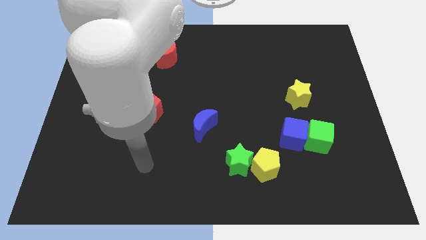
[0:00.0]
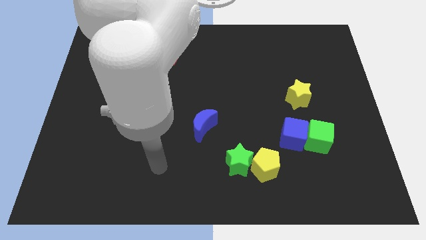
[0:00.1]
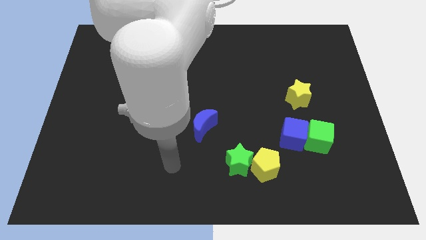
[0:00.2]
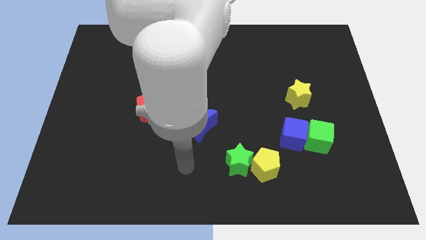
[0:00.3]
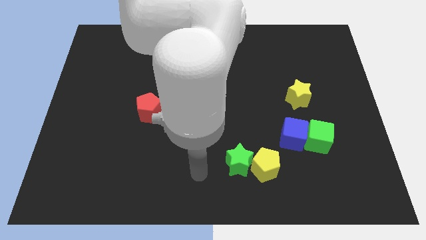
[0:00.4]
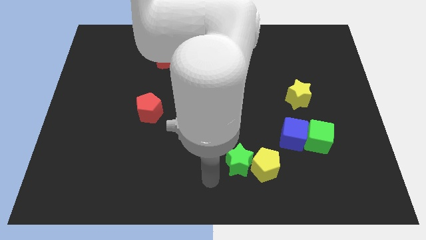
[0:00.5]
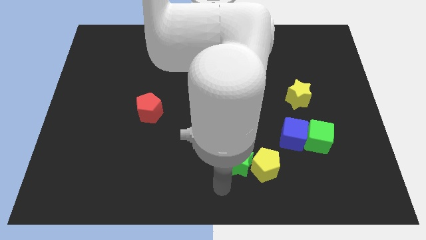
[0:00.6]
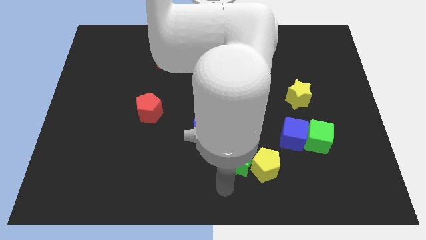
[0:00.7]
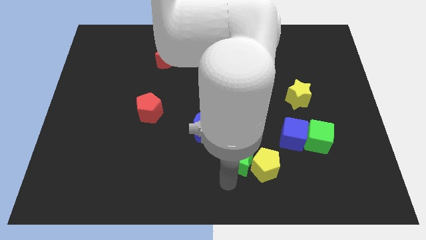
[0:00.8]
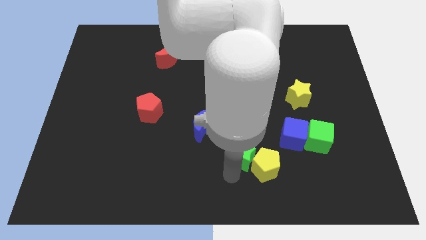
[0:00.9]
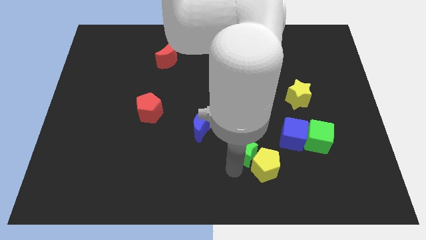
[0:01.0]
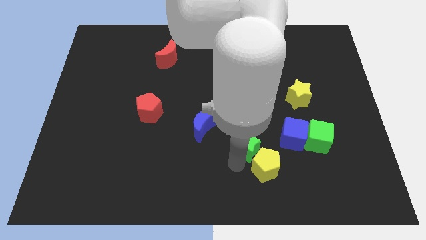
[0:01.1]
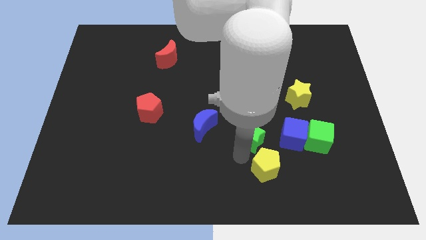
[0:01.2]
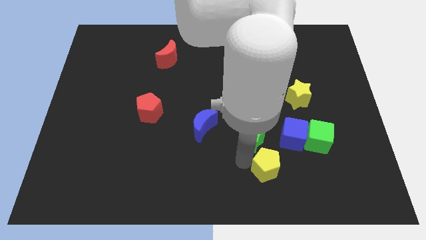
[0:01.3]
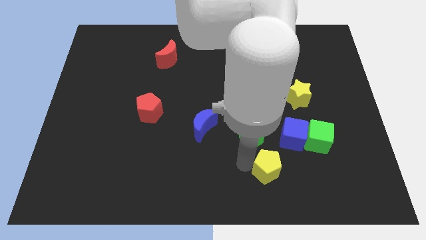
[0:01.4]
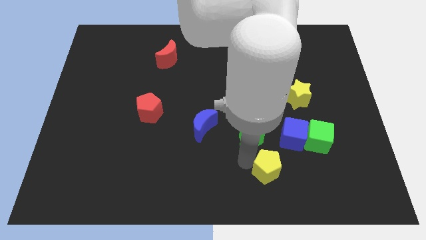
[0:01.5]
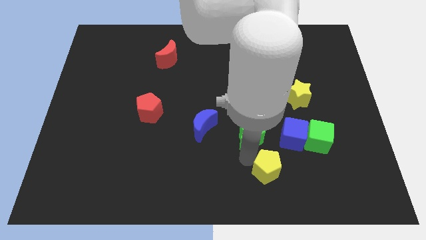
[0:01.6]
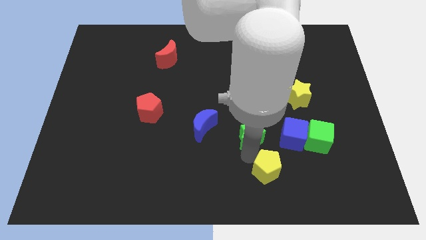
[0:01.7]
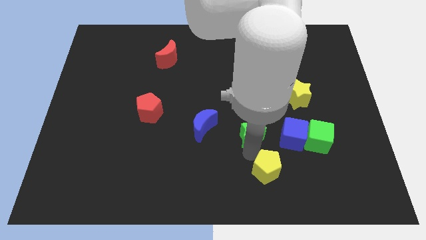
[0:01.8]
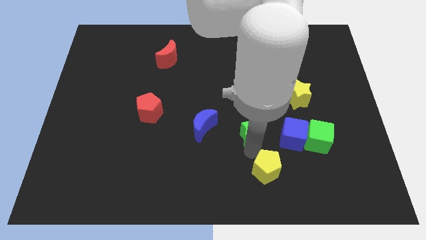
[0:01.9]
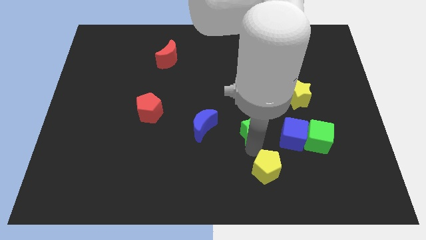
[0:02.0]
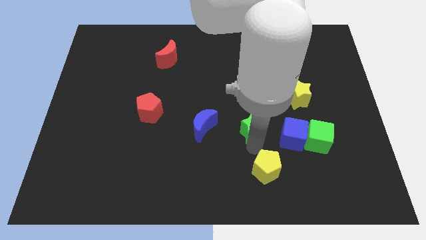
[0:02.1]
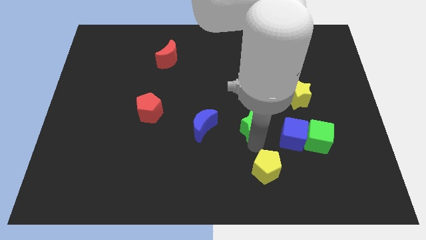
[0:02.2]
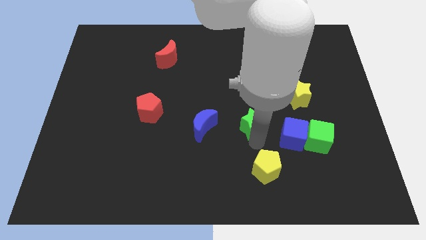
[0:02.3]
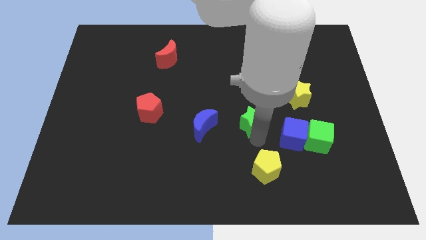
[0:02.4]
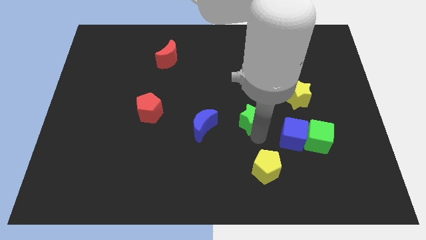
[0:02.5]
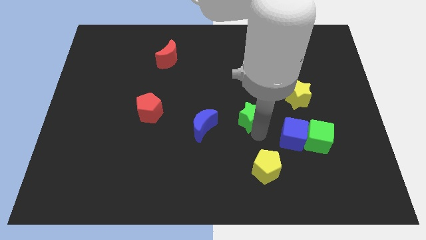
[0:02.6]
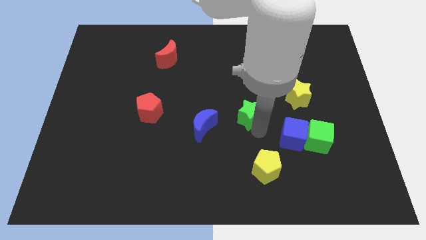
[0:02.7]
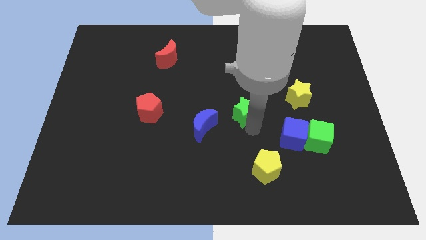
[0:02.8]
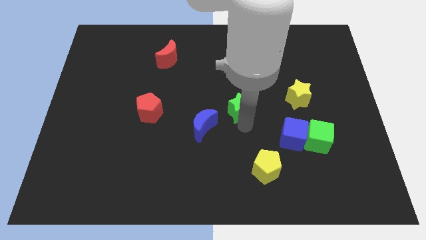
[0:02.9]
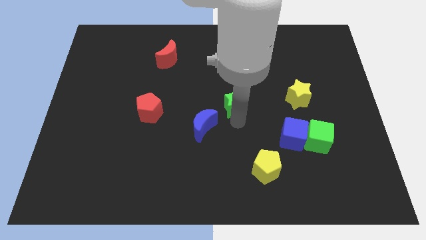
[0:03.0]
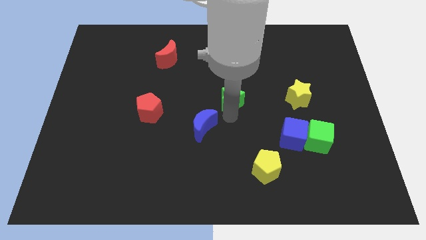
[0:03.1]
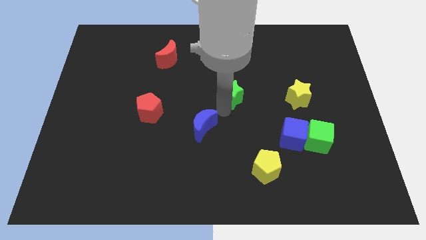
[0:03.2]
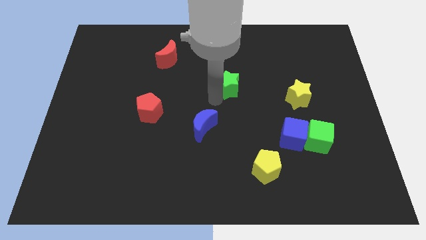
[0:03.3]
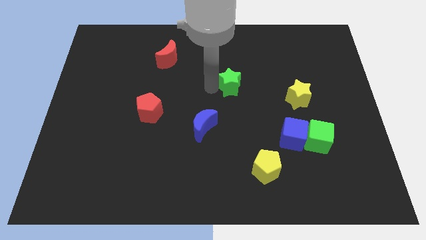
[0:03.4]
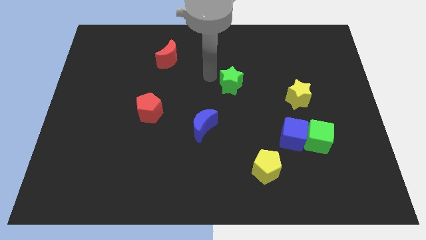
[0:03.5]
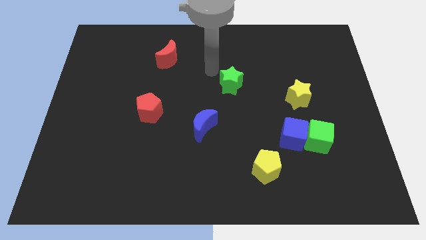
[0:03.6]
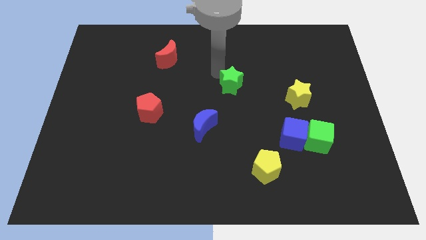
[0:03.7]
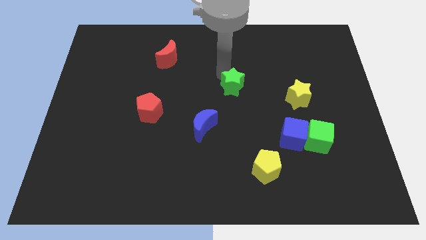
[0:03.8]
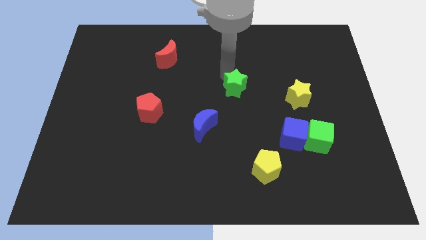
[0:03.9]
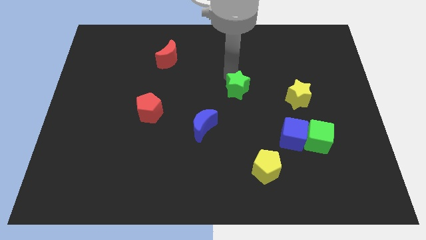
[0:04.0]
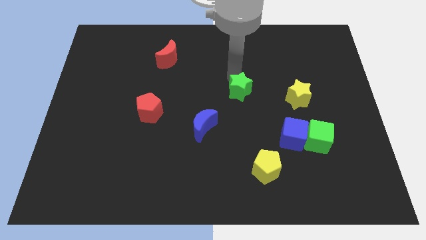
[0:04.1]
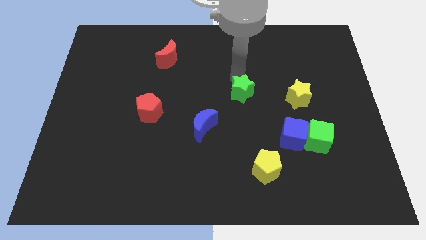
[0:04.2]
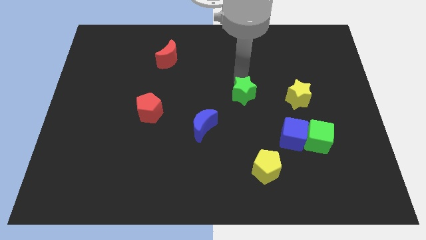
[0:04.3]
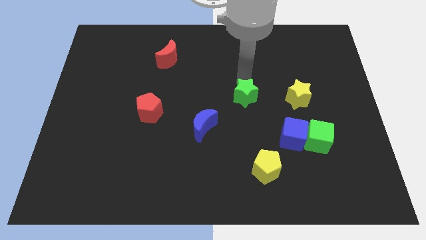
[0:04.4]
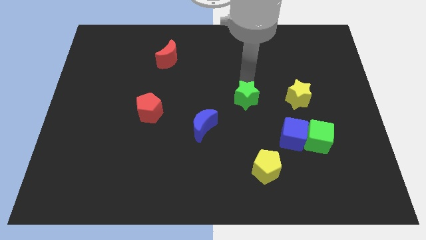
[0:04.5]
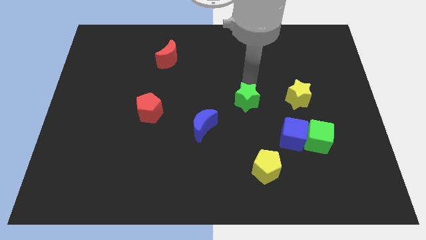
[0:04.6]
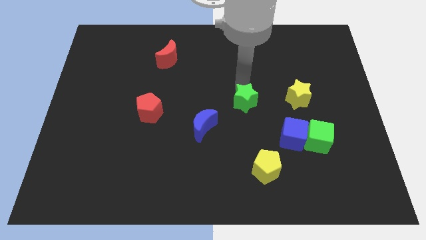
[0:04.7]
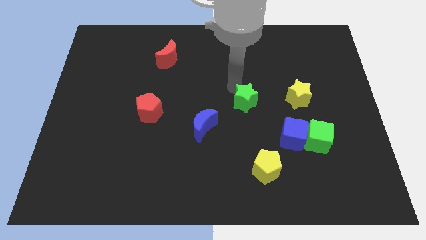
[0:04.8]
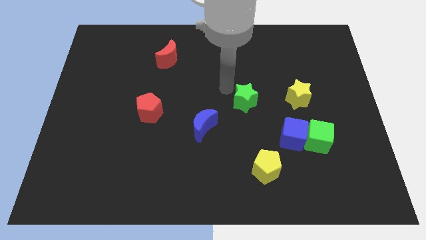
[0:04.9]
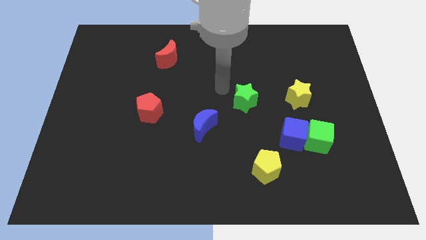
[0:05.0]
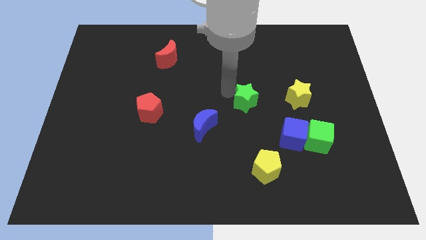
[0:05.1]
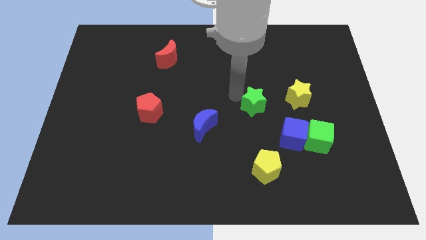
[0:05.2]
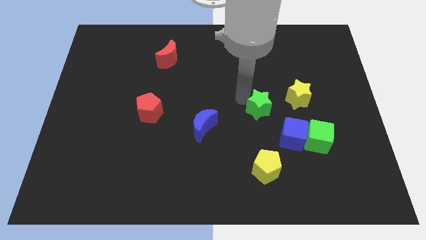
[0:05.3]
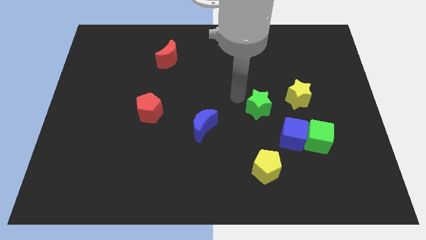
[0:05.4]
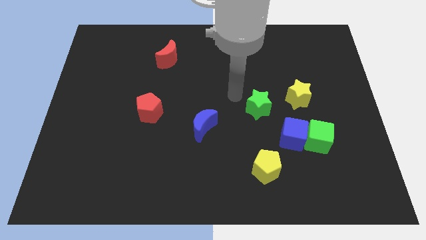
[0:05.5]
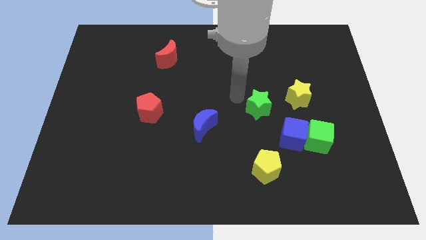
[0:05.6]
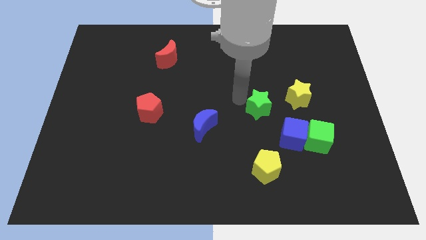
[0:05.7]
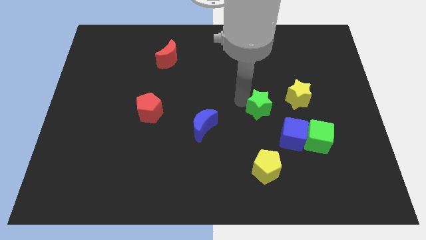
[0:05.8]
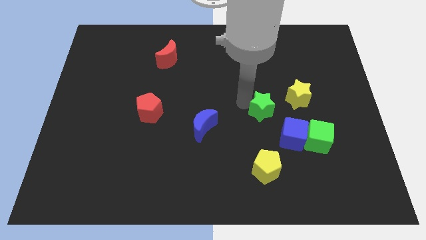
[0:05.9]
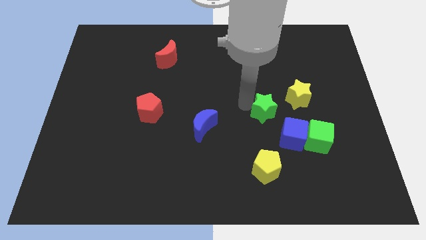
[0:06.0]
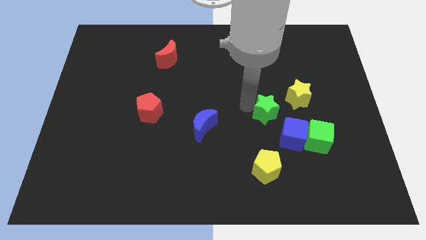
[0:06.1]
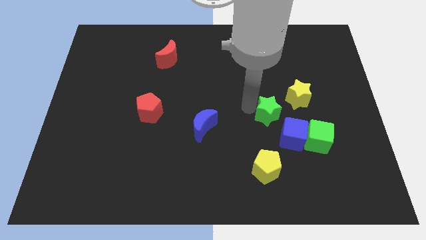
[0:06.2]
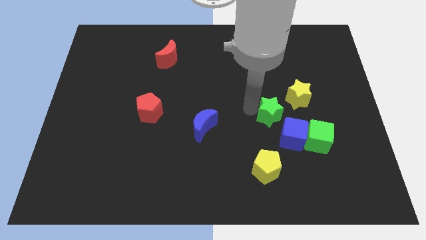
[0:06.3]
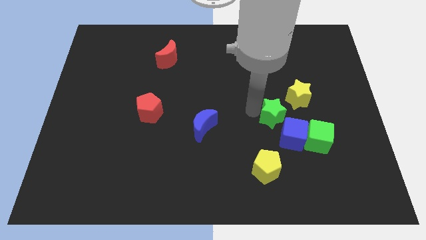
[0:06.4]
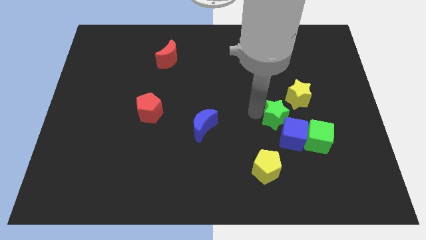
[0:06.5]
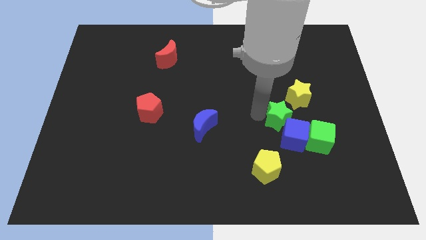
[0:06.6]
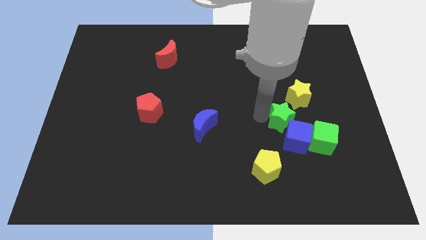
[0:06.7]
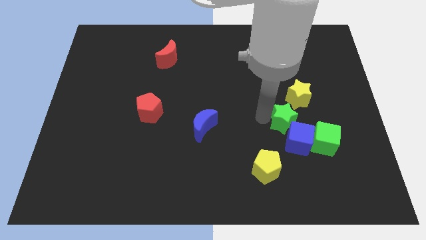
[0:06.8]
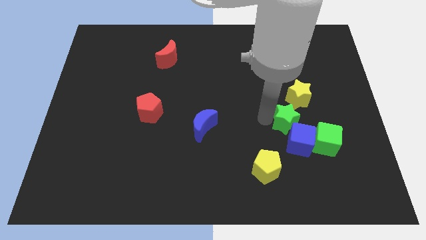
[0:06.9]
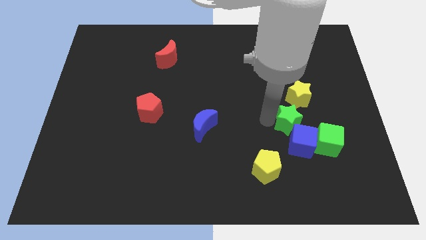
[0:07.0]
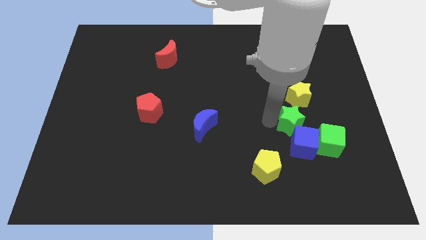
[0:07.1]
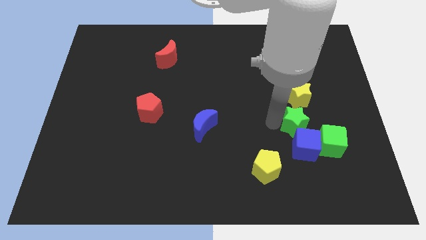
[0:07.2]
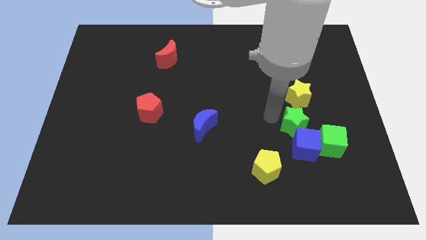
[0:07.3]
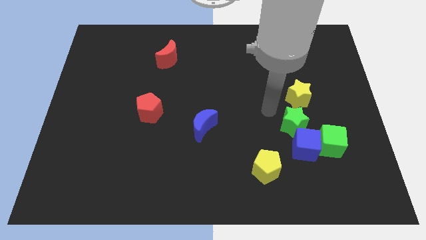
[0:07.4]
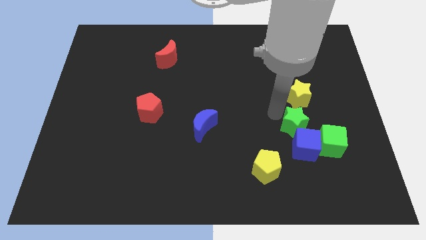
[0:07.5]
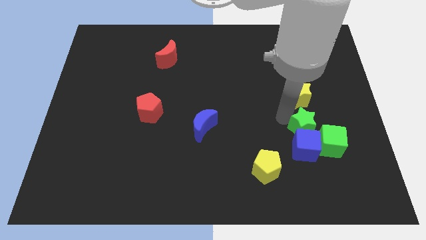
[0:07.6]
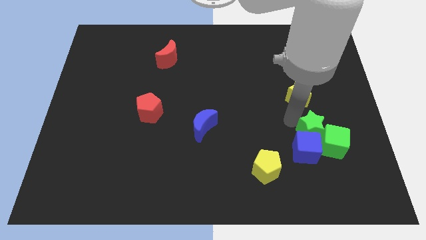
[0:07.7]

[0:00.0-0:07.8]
put the green star towards the green cube
